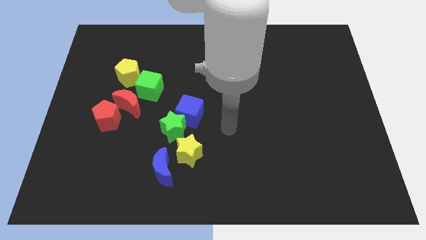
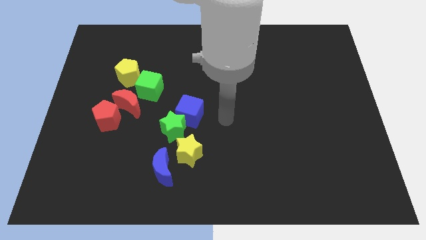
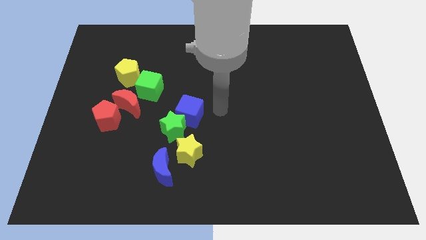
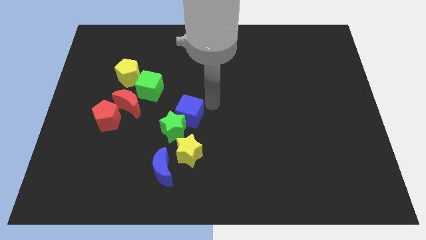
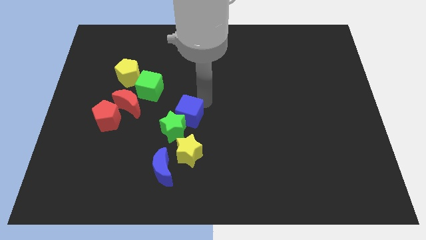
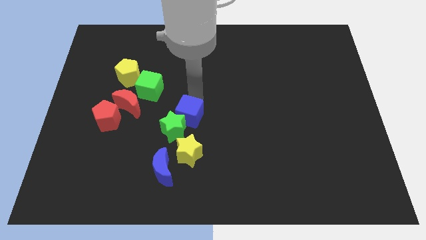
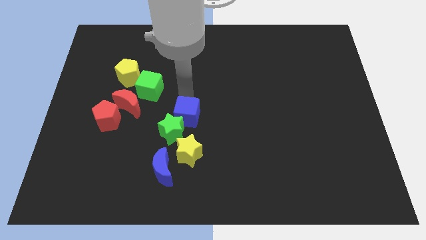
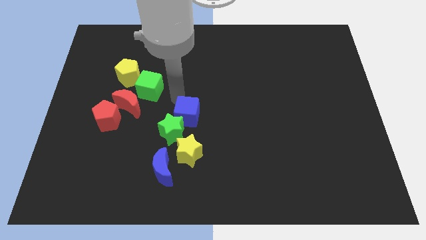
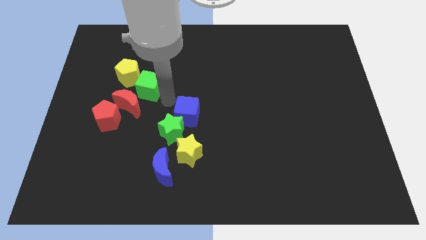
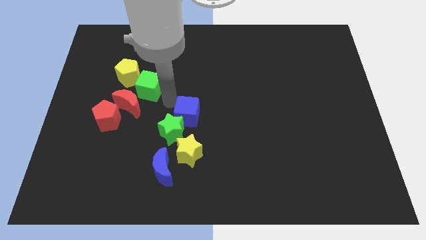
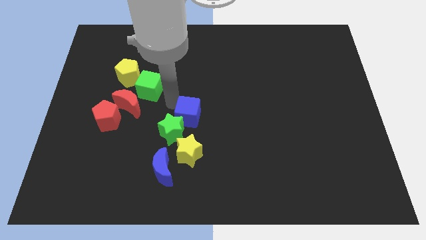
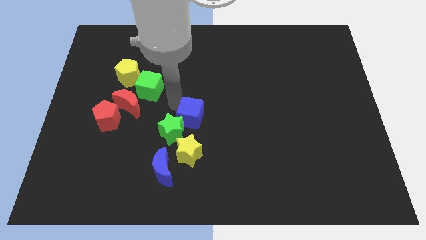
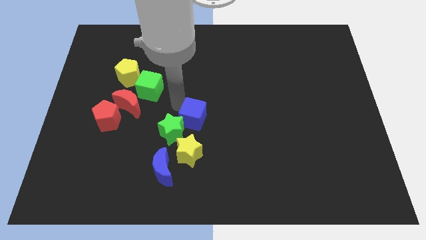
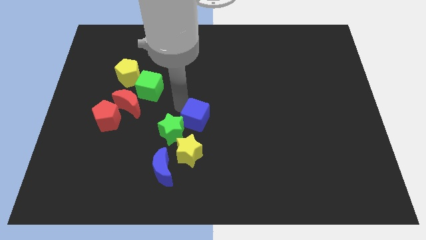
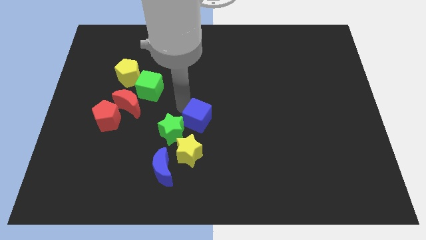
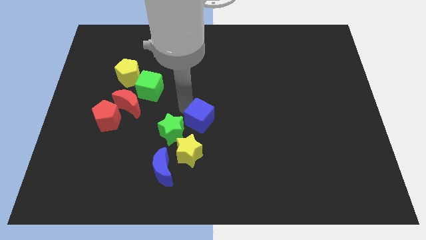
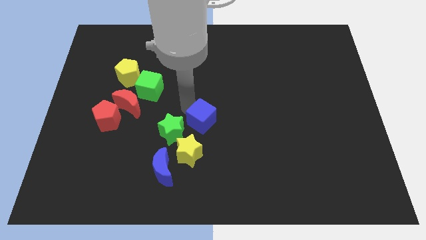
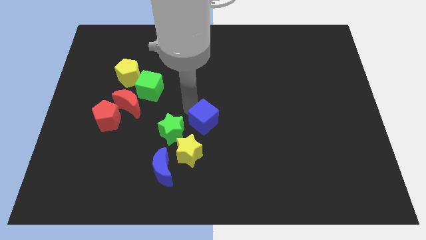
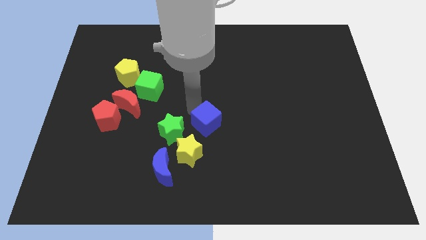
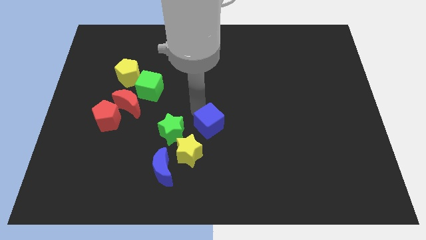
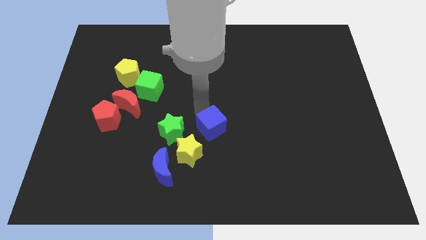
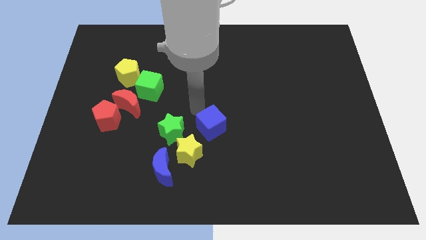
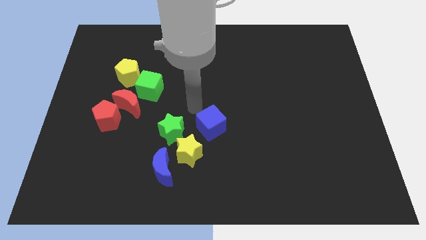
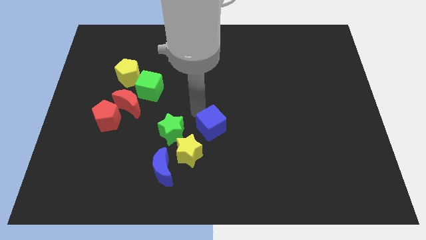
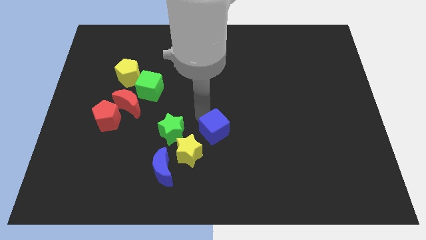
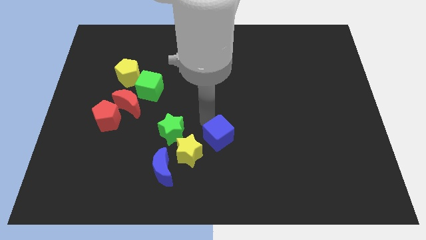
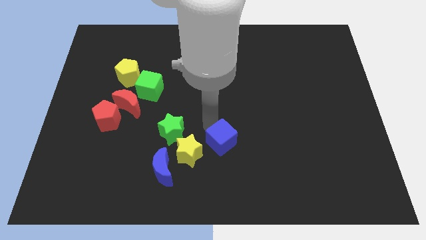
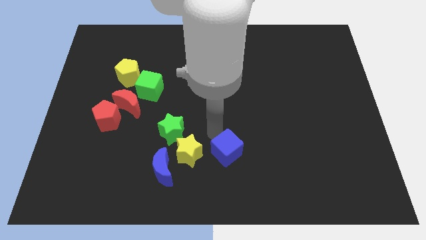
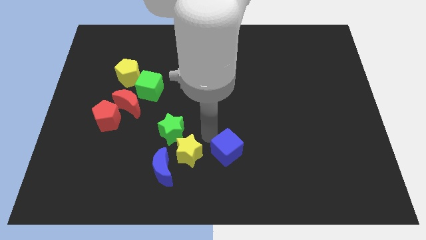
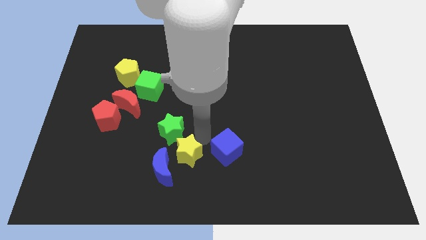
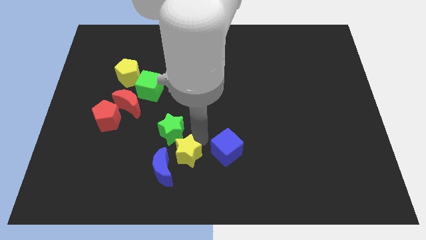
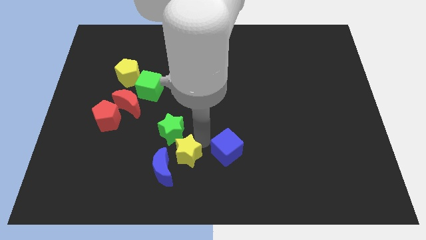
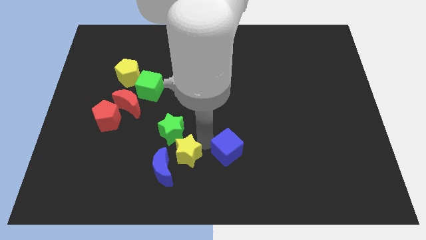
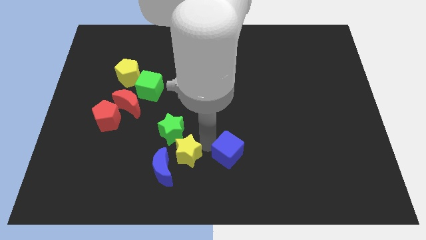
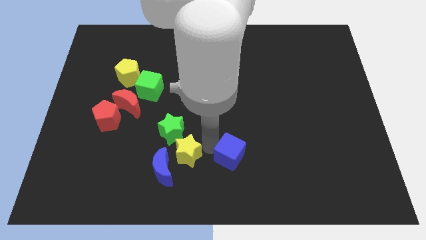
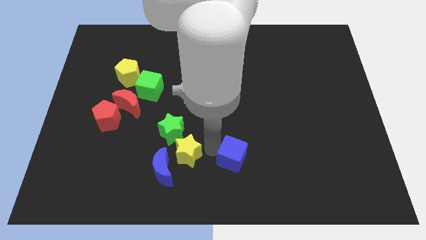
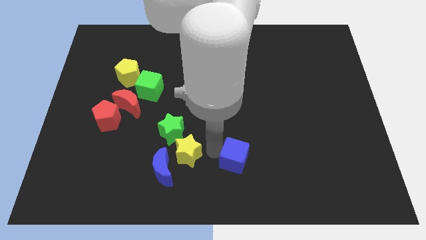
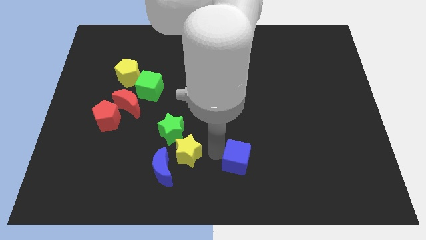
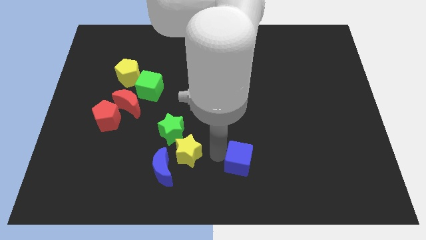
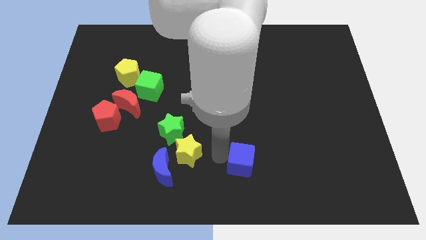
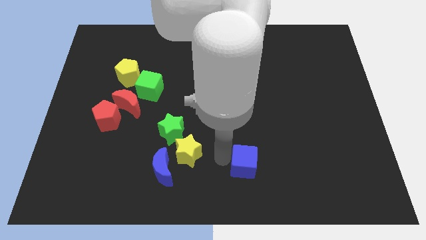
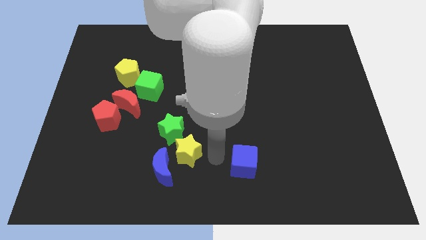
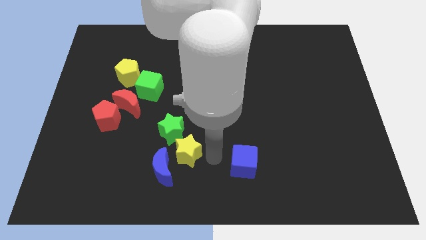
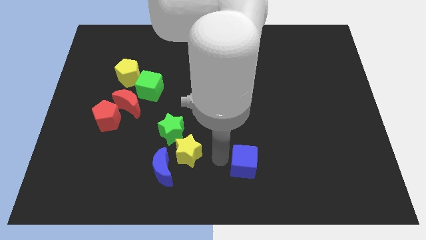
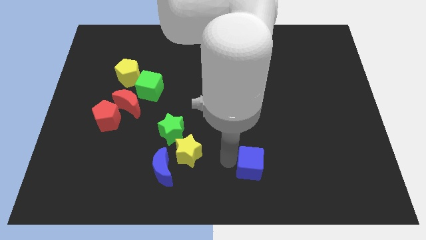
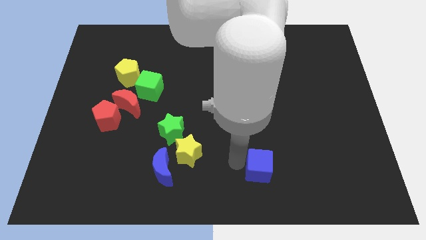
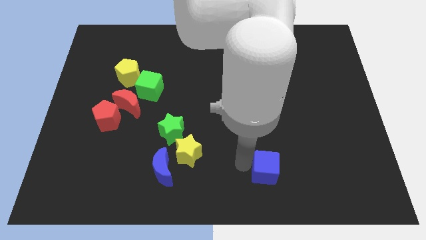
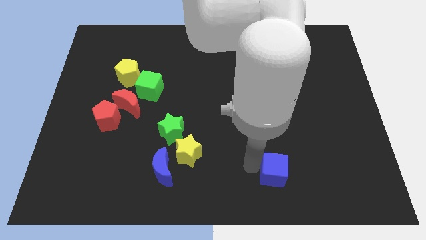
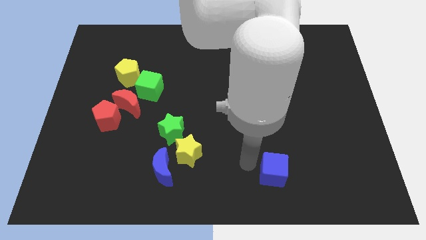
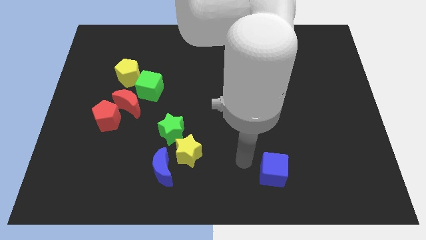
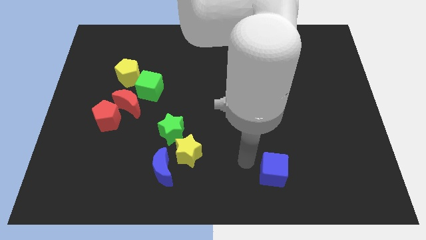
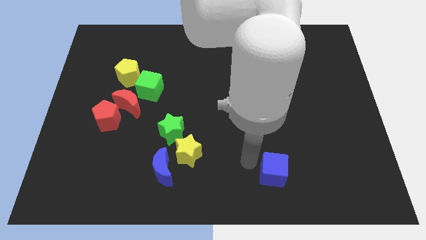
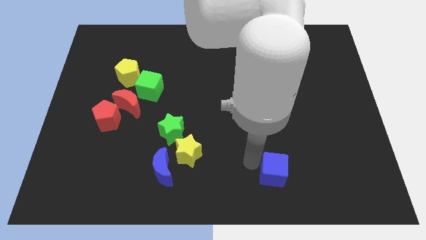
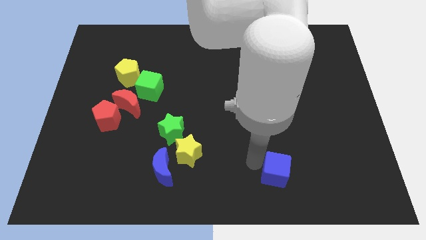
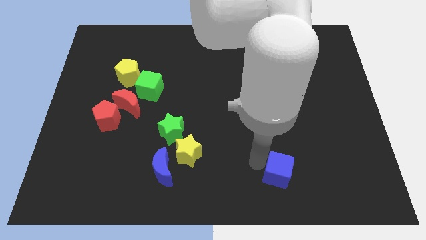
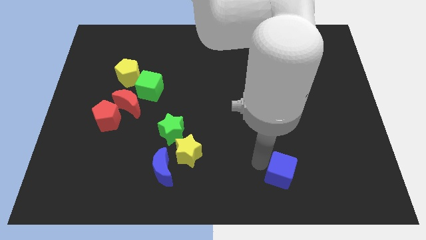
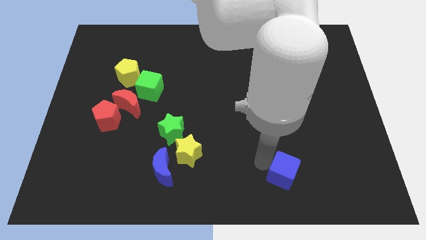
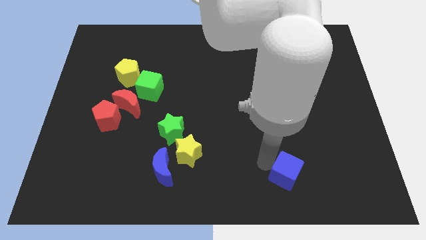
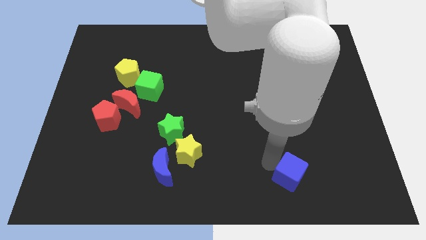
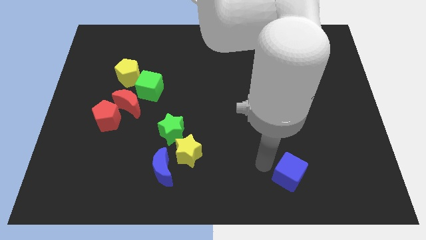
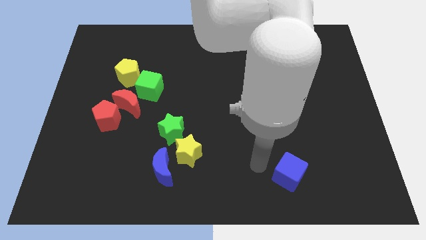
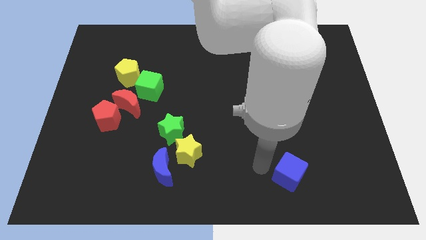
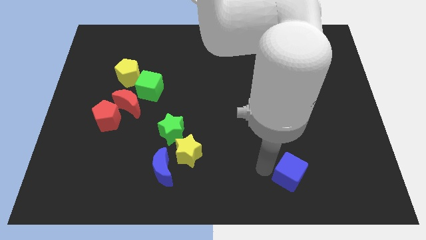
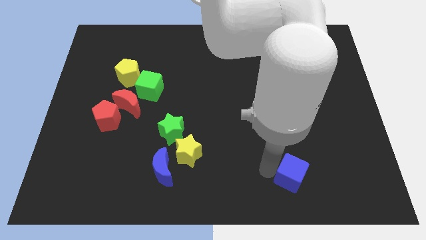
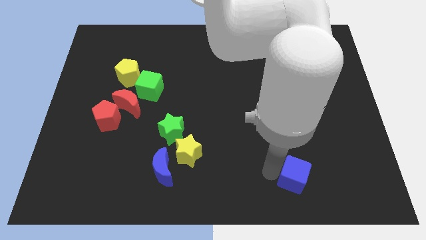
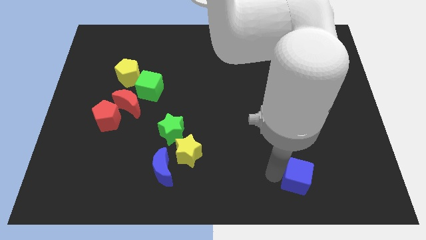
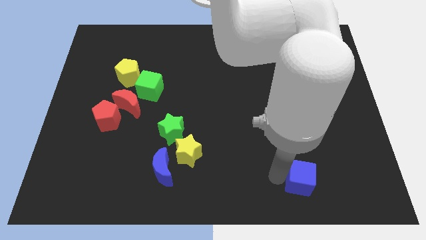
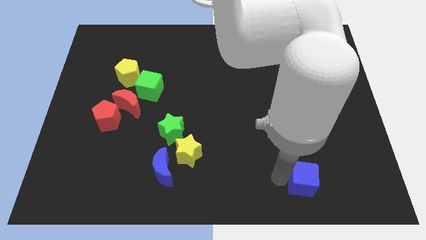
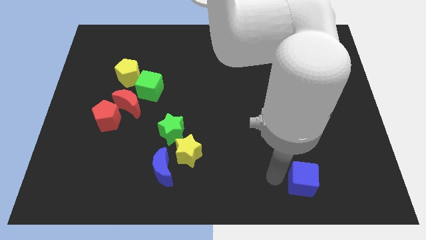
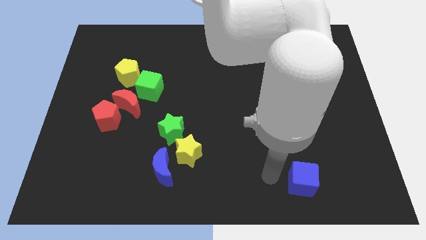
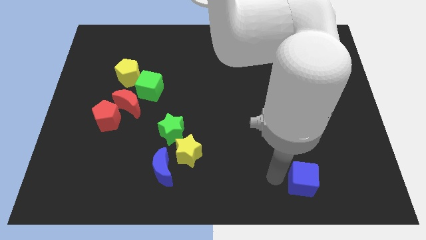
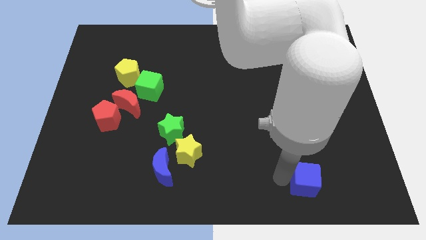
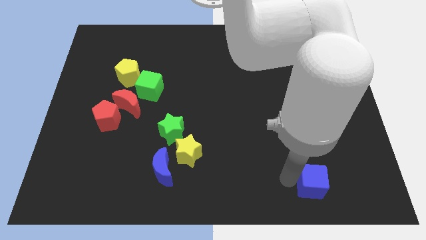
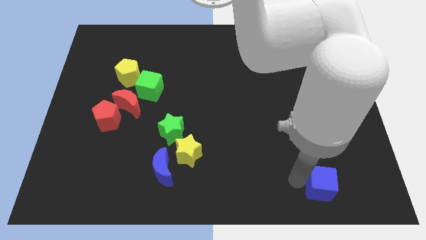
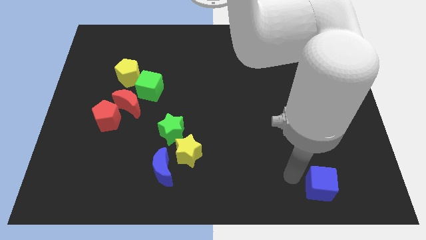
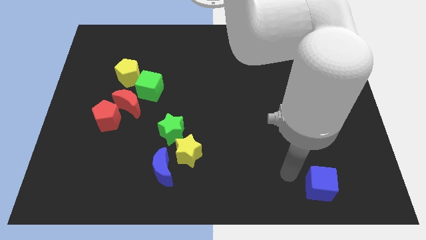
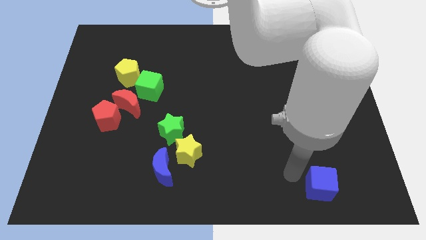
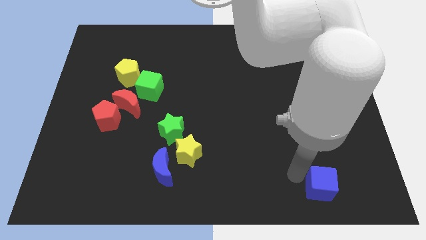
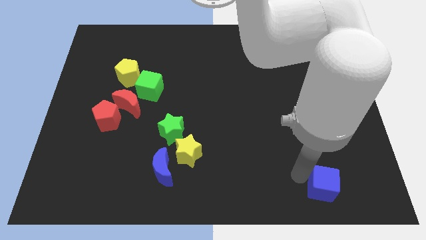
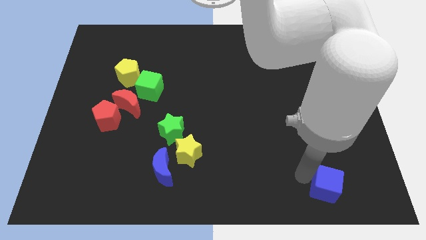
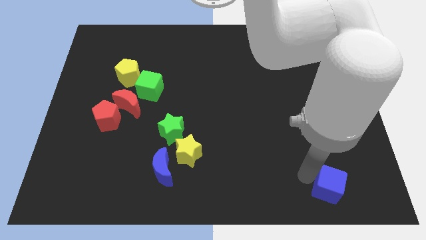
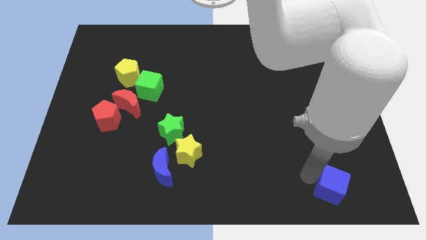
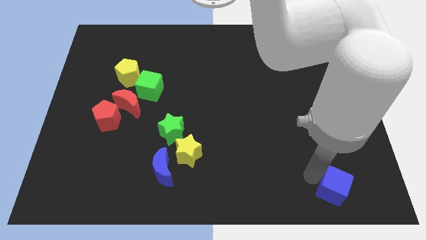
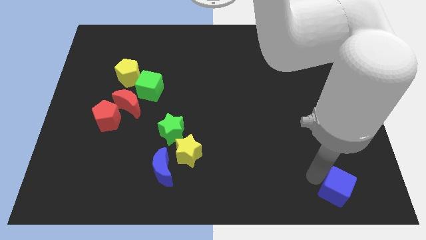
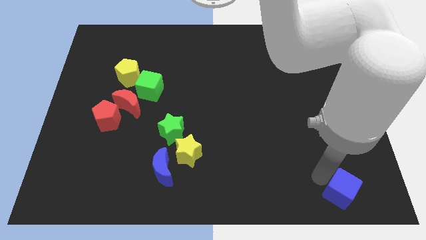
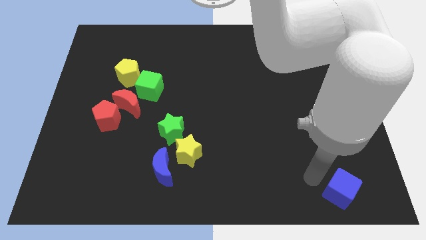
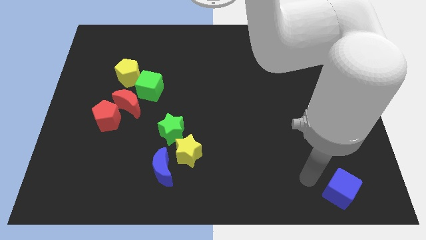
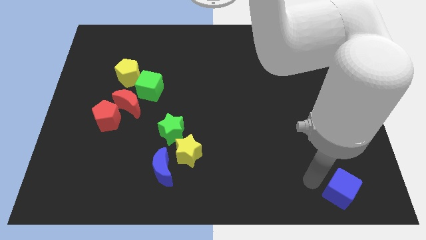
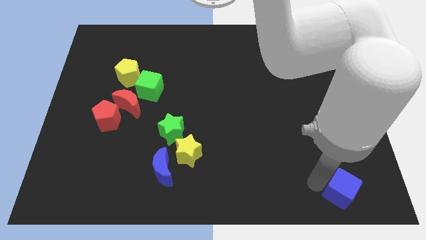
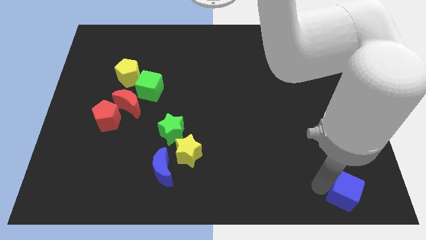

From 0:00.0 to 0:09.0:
move the blue cube to the bottom right of the board
